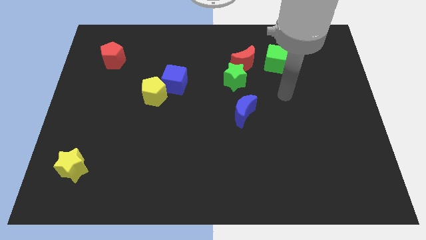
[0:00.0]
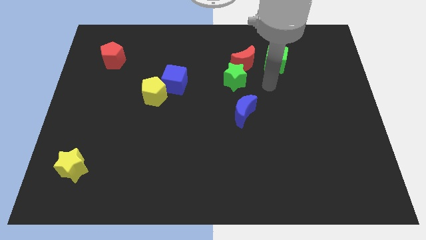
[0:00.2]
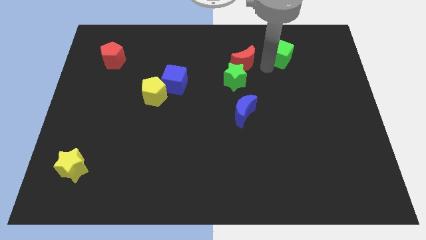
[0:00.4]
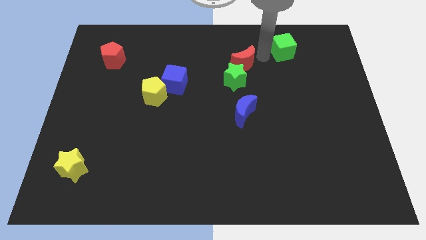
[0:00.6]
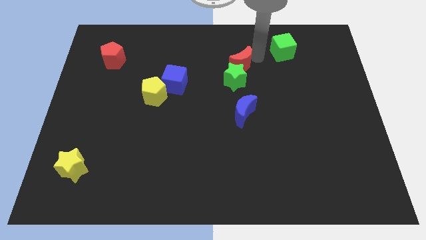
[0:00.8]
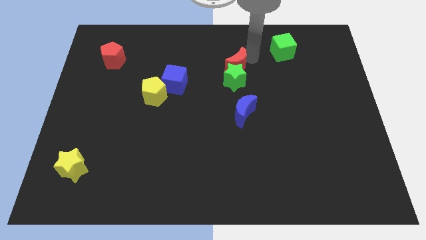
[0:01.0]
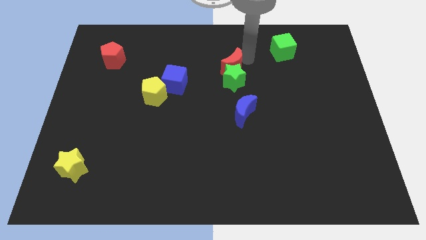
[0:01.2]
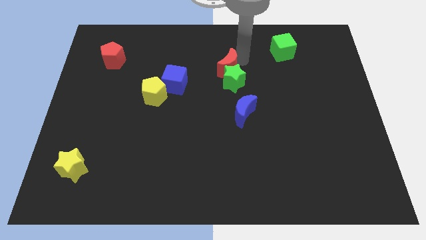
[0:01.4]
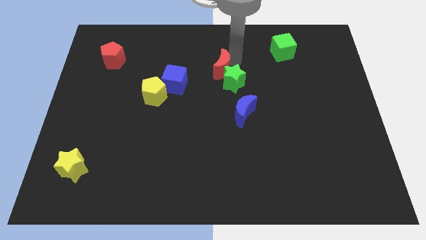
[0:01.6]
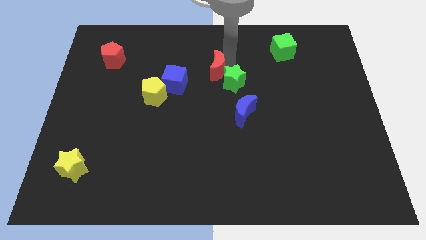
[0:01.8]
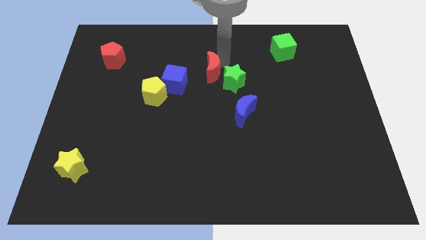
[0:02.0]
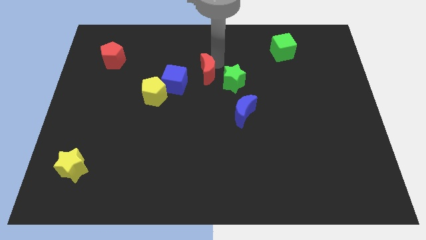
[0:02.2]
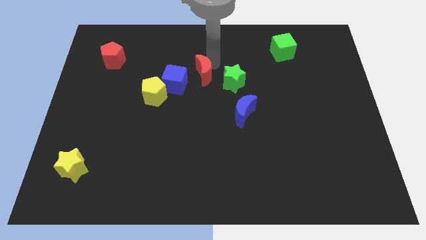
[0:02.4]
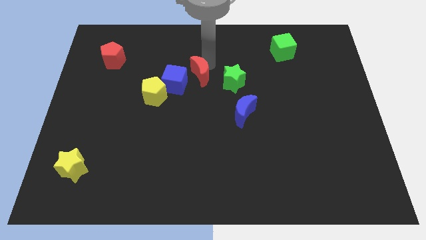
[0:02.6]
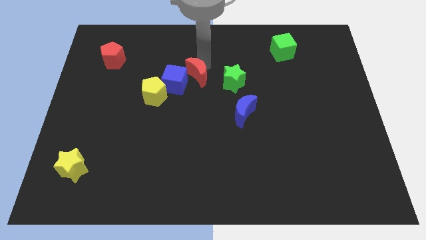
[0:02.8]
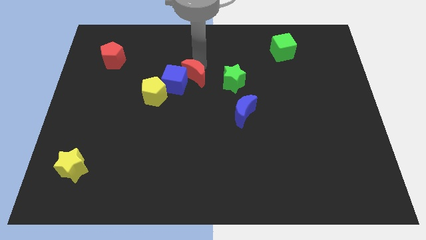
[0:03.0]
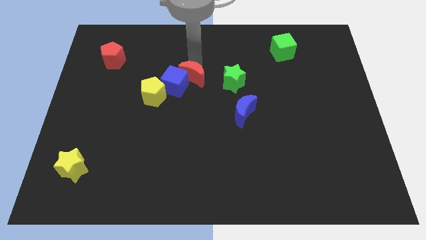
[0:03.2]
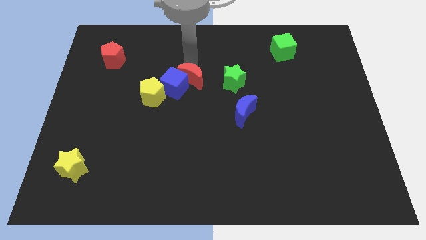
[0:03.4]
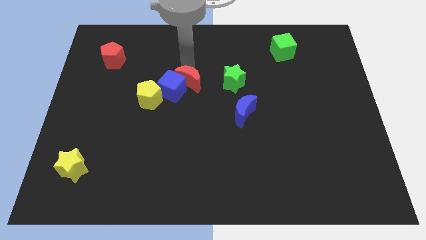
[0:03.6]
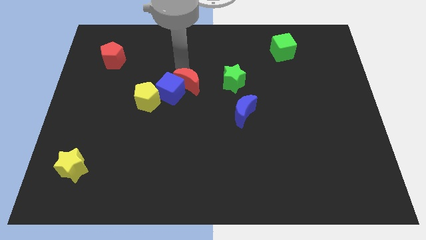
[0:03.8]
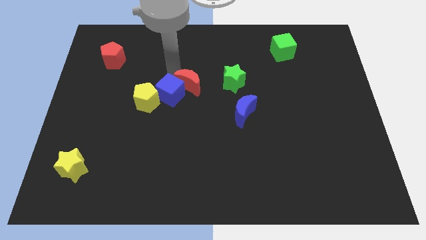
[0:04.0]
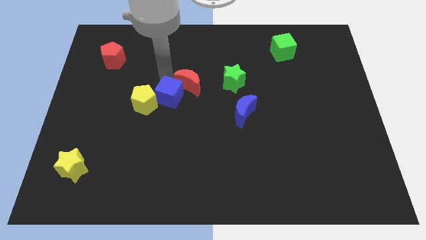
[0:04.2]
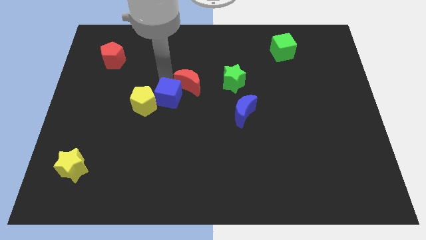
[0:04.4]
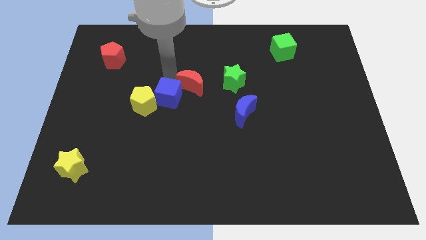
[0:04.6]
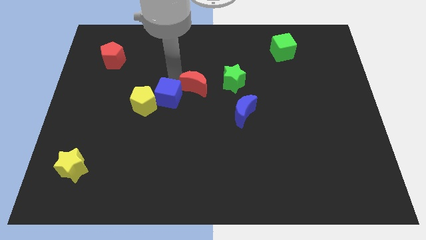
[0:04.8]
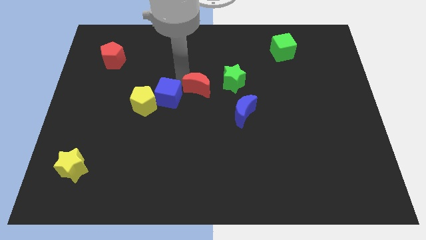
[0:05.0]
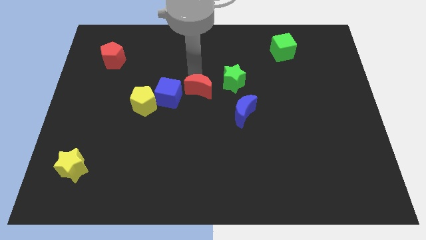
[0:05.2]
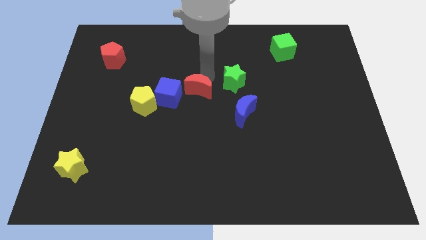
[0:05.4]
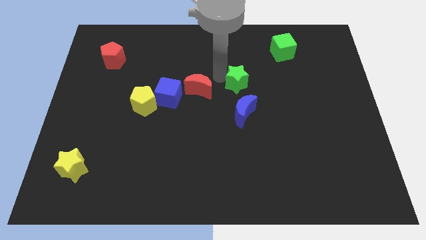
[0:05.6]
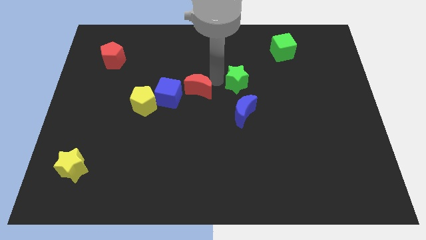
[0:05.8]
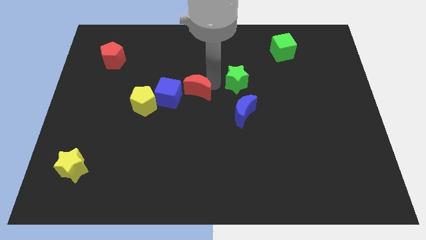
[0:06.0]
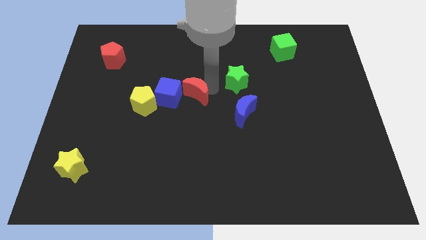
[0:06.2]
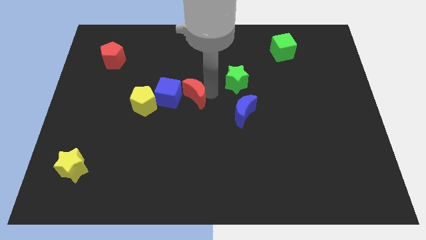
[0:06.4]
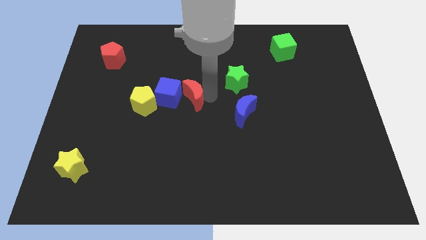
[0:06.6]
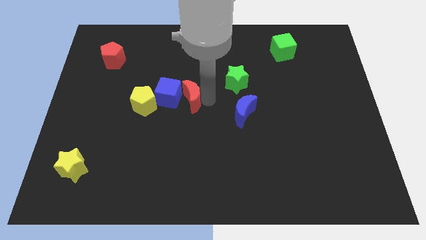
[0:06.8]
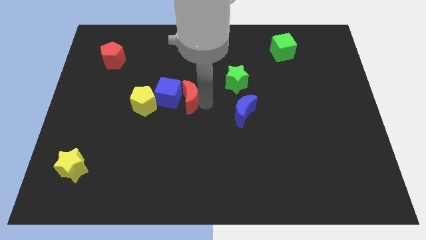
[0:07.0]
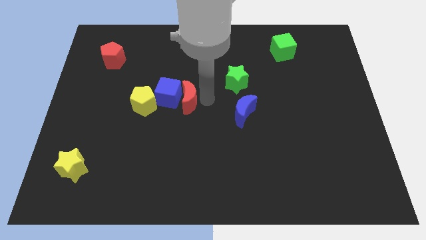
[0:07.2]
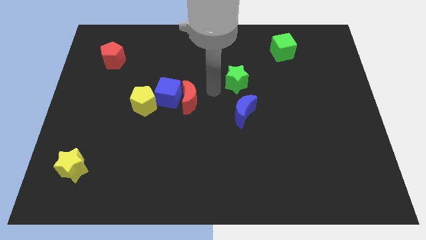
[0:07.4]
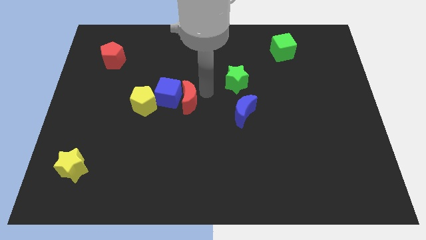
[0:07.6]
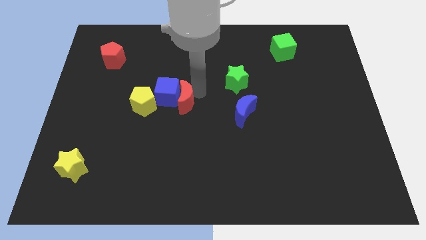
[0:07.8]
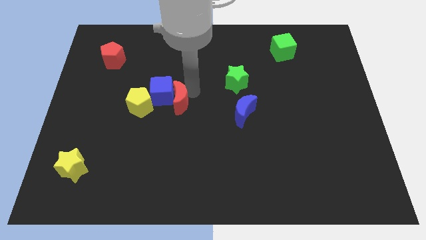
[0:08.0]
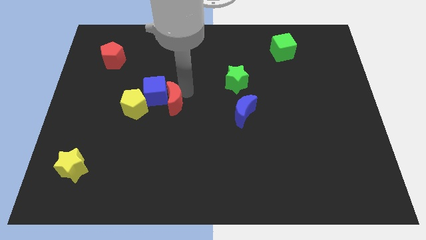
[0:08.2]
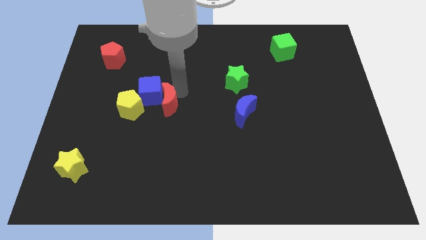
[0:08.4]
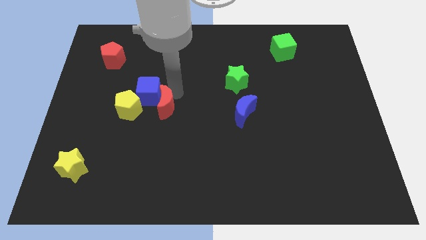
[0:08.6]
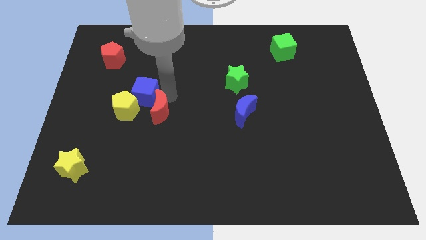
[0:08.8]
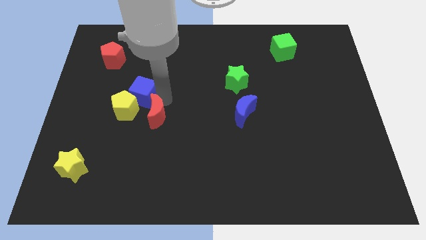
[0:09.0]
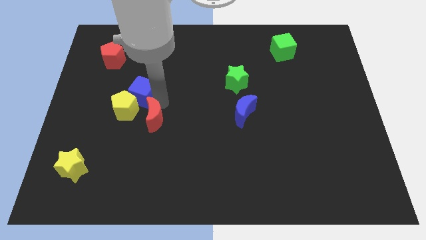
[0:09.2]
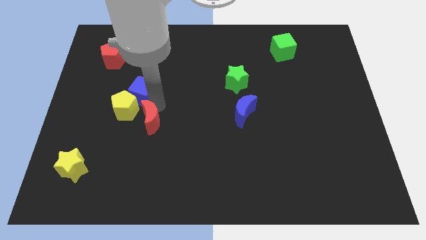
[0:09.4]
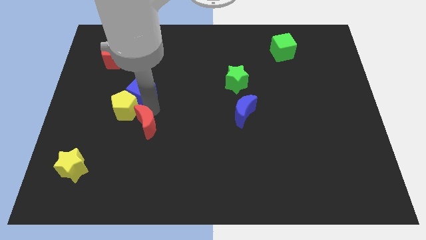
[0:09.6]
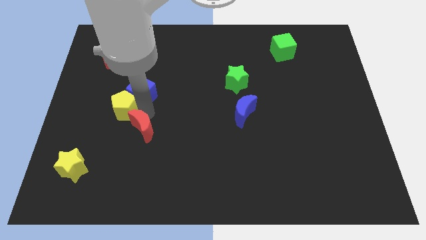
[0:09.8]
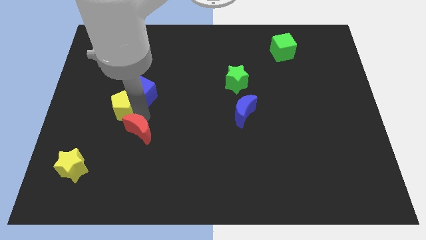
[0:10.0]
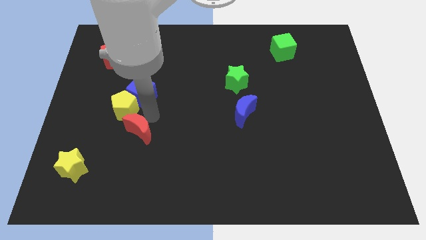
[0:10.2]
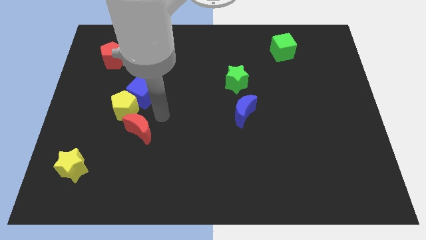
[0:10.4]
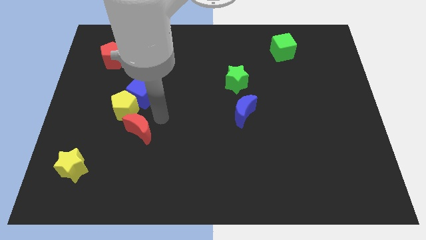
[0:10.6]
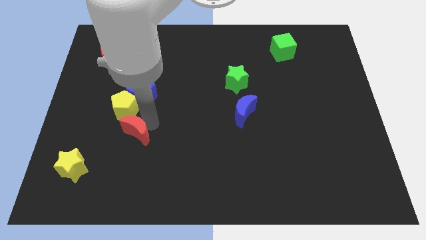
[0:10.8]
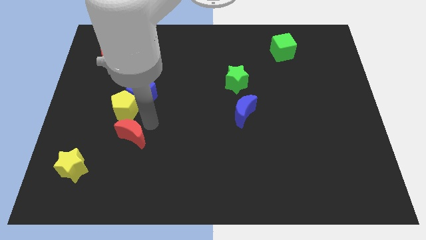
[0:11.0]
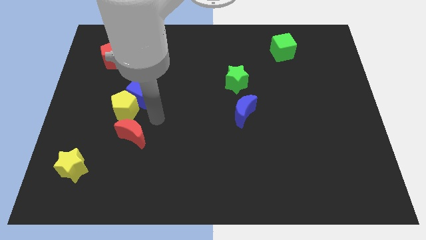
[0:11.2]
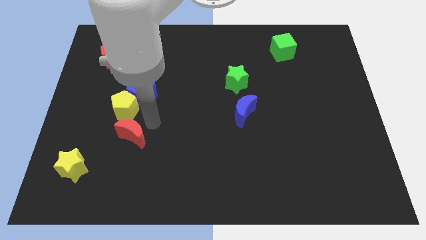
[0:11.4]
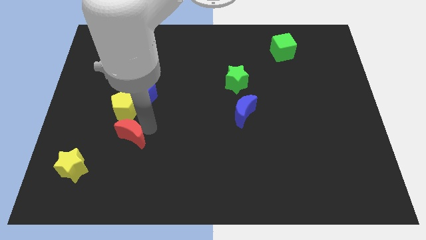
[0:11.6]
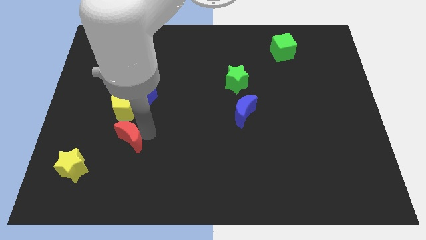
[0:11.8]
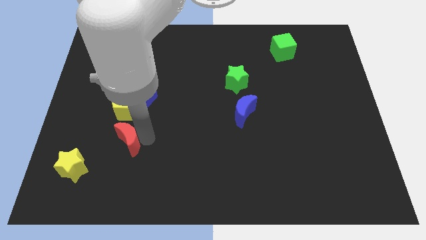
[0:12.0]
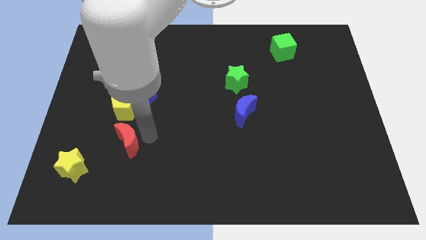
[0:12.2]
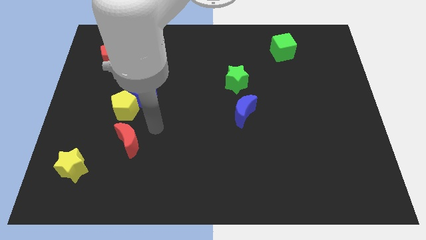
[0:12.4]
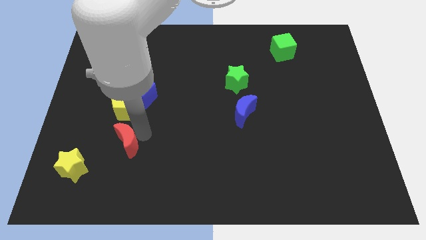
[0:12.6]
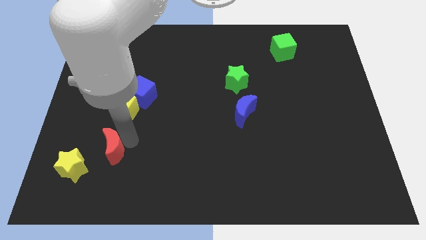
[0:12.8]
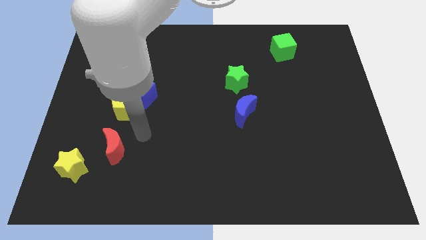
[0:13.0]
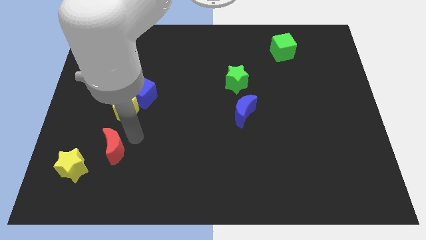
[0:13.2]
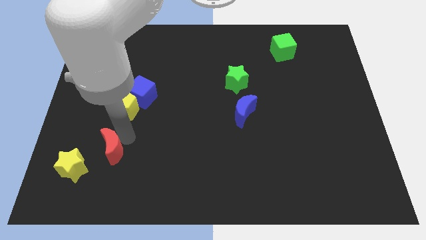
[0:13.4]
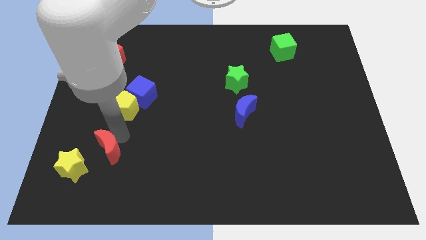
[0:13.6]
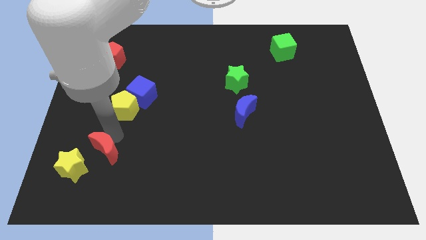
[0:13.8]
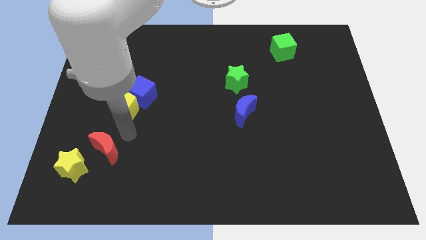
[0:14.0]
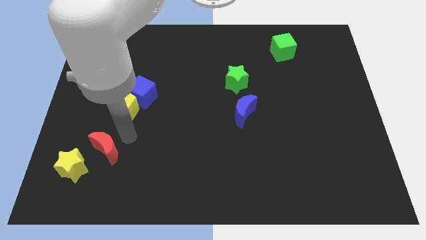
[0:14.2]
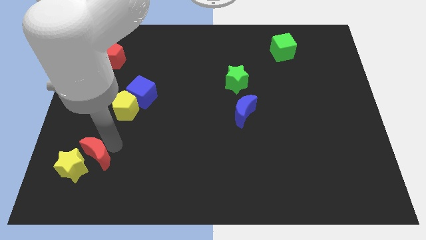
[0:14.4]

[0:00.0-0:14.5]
slide the red moon next to the yellow star
